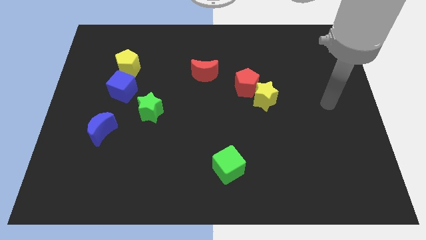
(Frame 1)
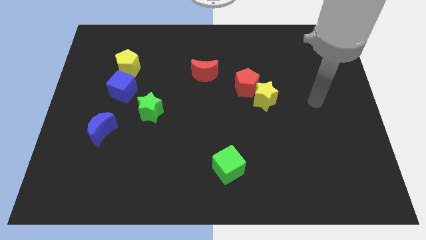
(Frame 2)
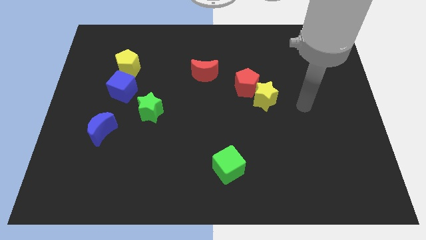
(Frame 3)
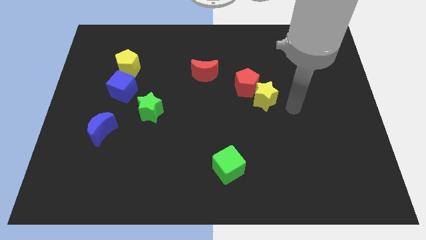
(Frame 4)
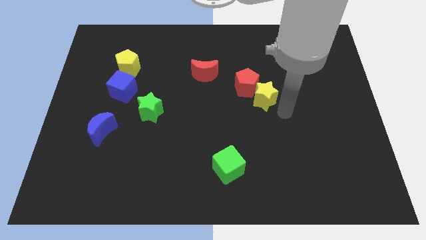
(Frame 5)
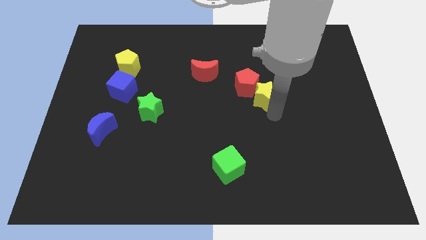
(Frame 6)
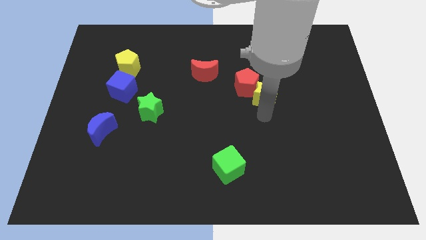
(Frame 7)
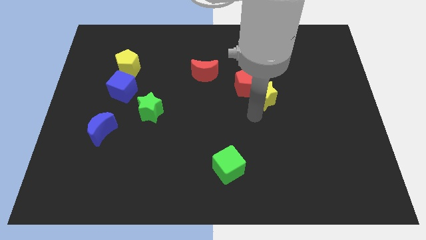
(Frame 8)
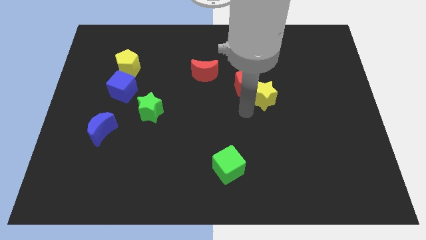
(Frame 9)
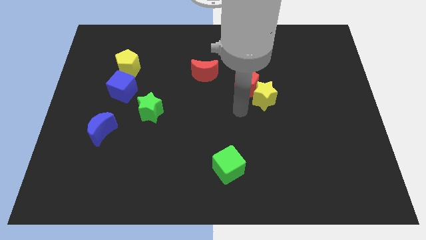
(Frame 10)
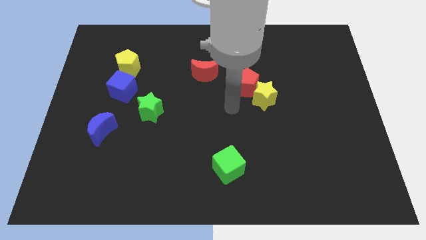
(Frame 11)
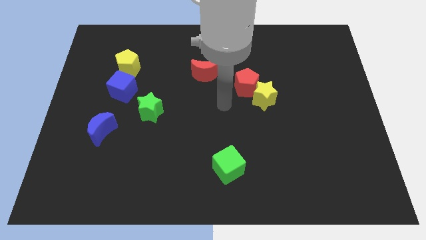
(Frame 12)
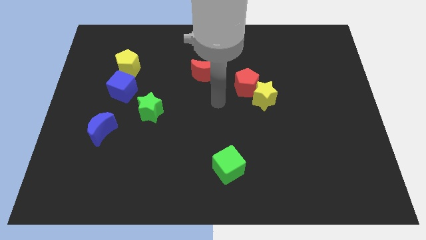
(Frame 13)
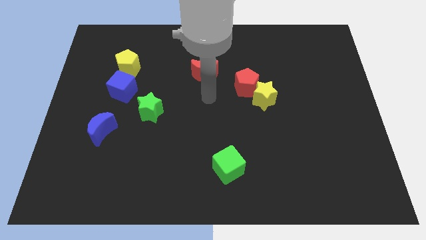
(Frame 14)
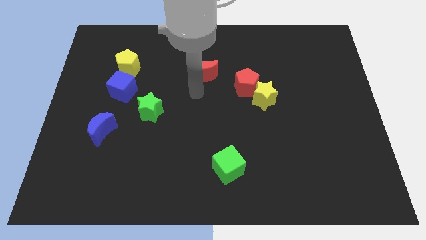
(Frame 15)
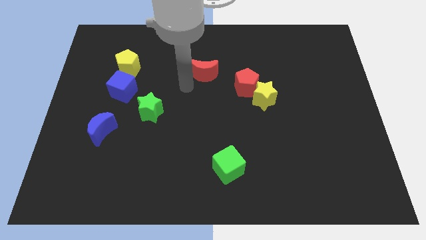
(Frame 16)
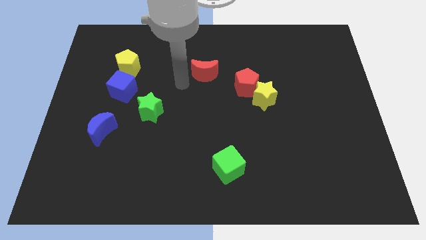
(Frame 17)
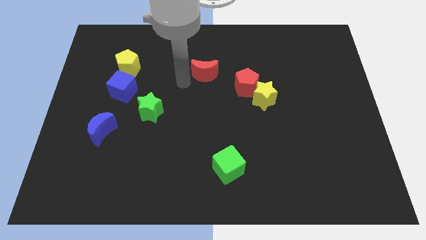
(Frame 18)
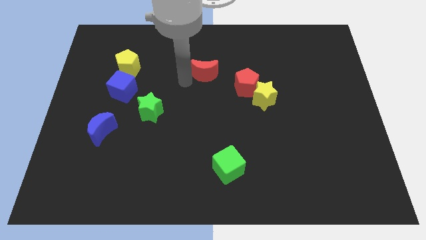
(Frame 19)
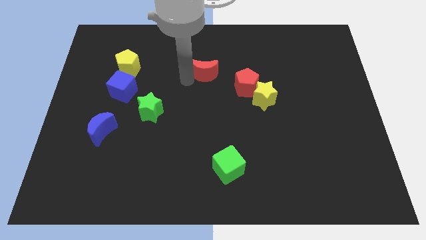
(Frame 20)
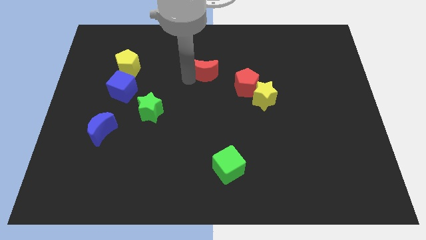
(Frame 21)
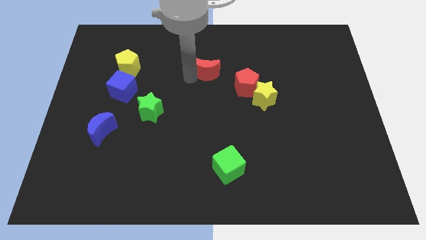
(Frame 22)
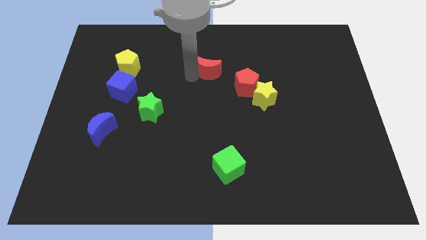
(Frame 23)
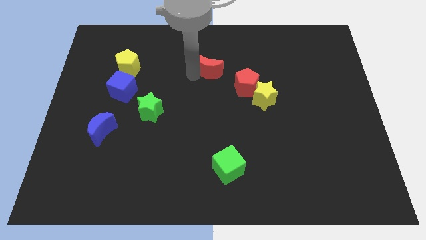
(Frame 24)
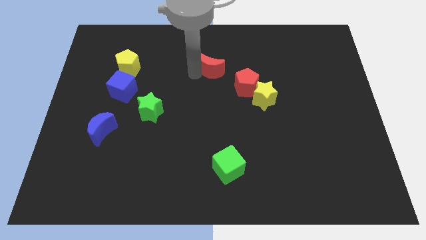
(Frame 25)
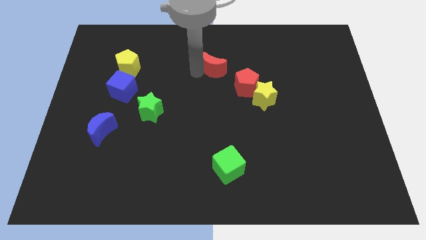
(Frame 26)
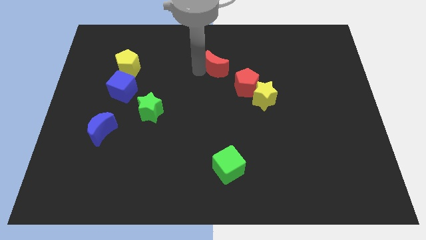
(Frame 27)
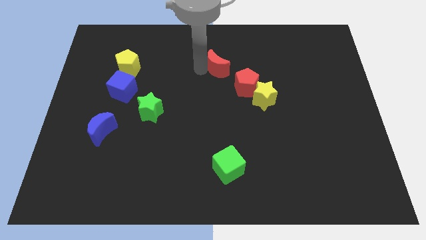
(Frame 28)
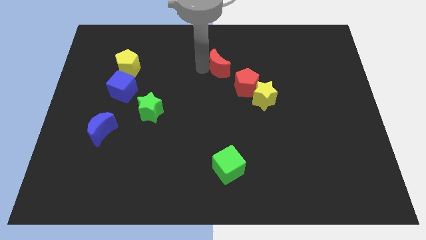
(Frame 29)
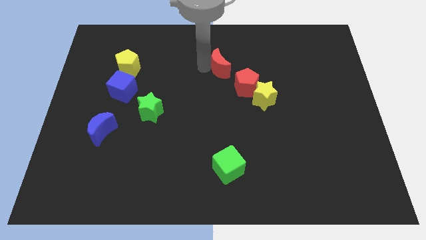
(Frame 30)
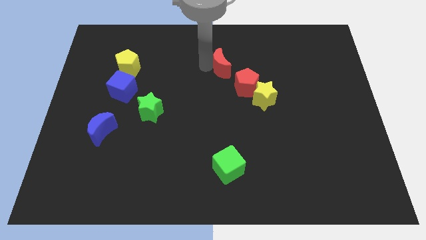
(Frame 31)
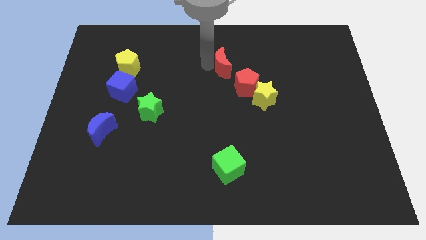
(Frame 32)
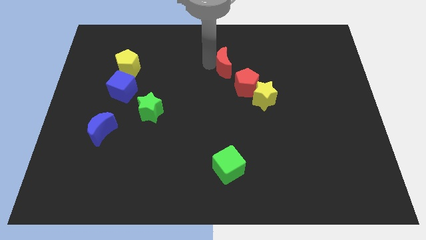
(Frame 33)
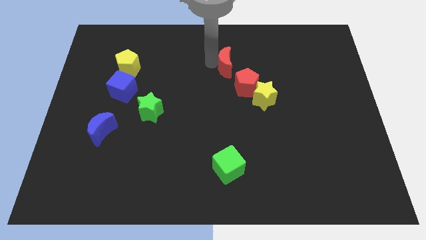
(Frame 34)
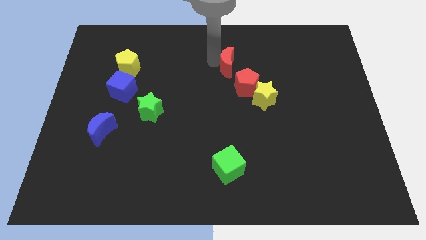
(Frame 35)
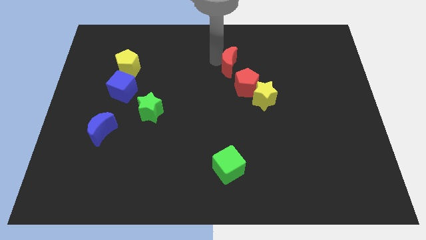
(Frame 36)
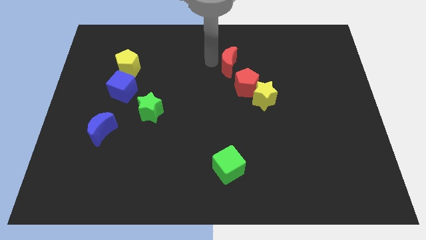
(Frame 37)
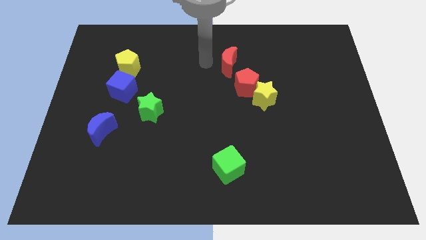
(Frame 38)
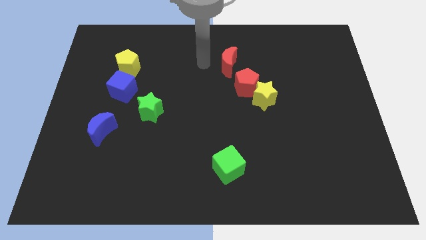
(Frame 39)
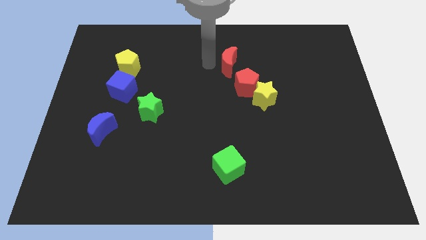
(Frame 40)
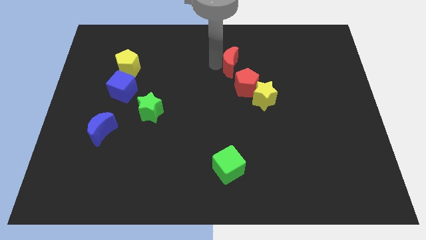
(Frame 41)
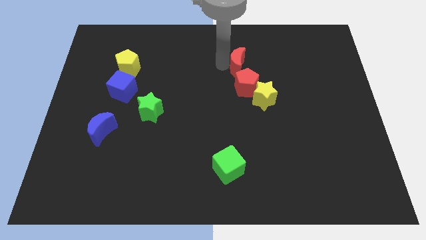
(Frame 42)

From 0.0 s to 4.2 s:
slide the red moon a little to the right

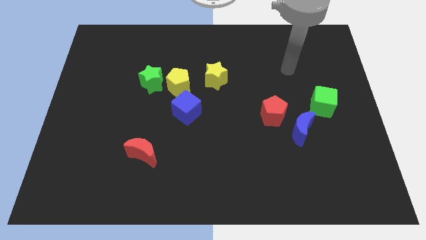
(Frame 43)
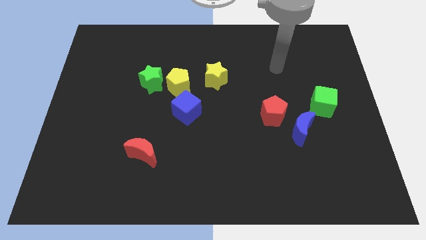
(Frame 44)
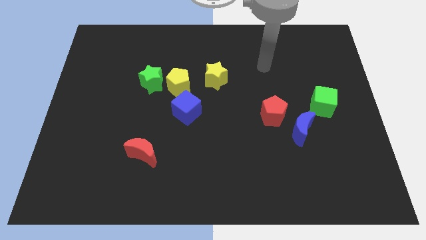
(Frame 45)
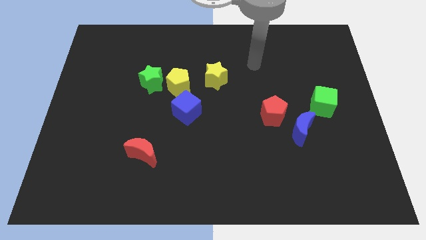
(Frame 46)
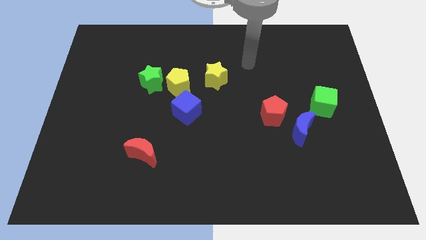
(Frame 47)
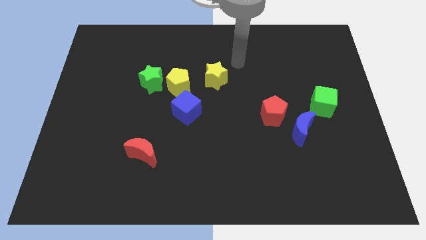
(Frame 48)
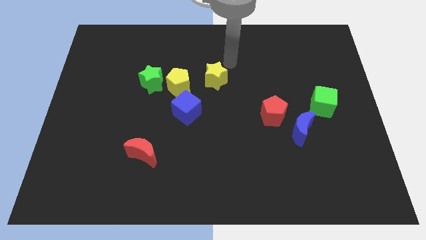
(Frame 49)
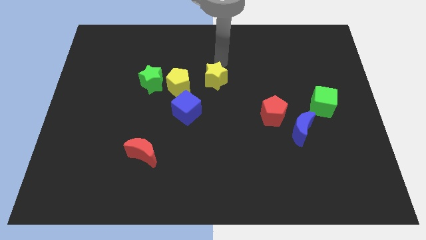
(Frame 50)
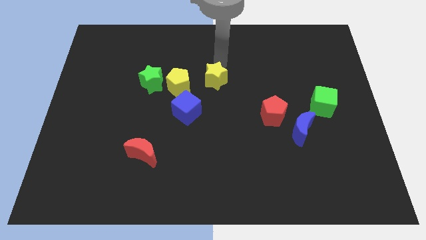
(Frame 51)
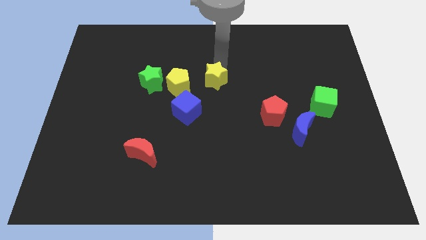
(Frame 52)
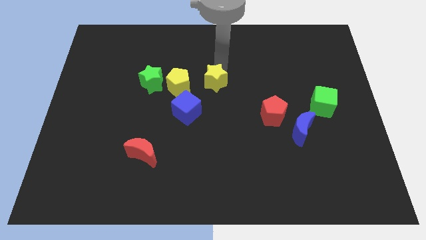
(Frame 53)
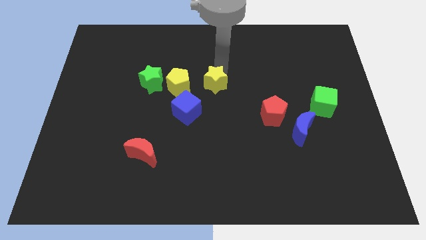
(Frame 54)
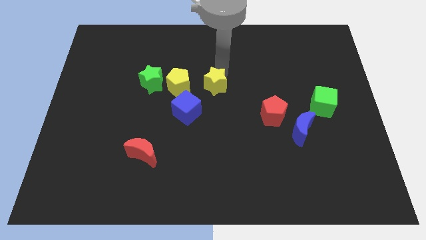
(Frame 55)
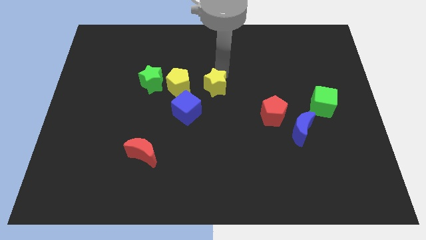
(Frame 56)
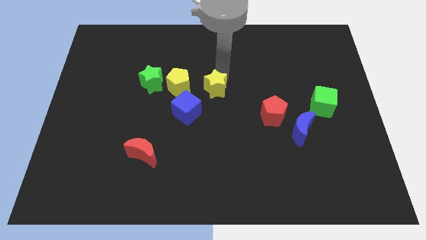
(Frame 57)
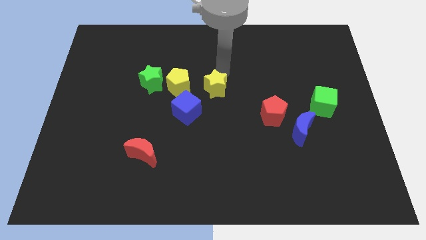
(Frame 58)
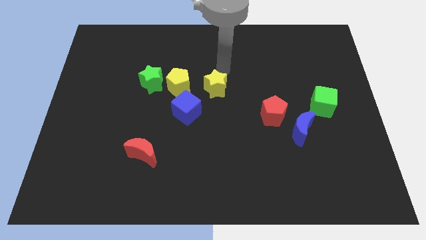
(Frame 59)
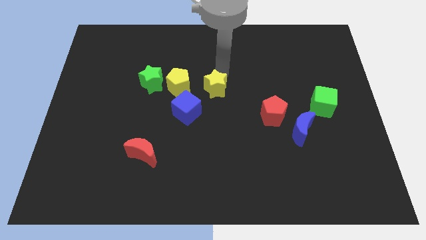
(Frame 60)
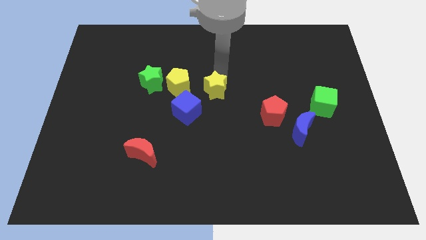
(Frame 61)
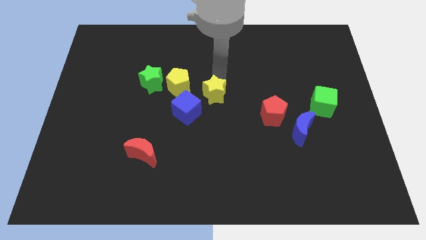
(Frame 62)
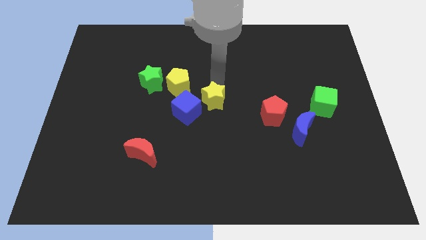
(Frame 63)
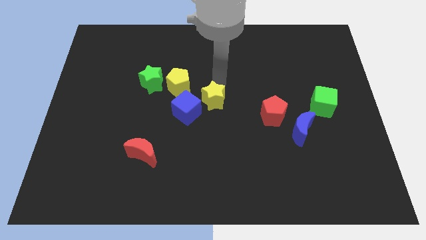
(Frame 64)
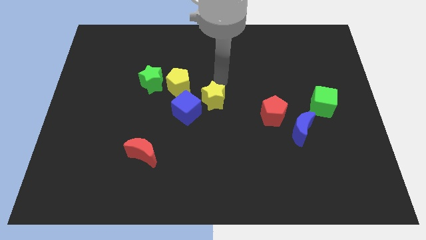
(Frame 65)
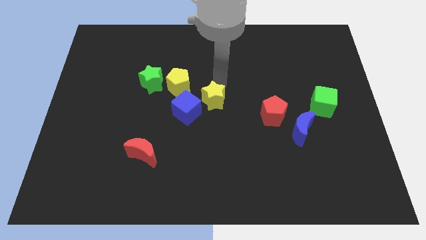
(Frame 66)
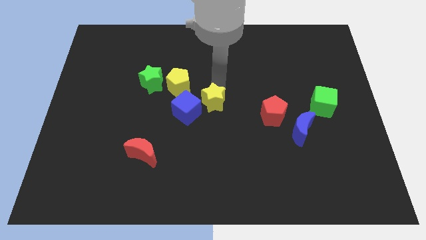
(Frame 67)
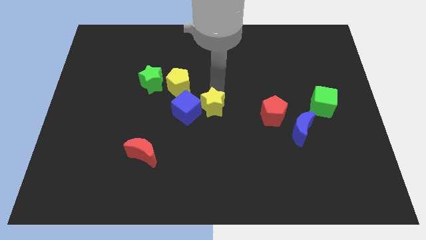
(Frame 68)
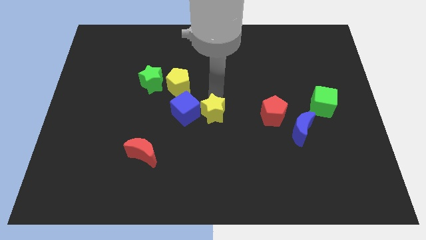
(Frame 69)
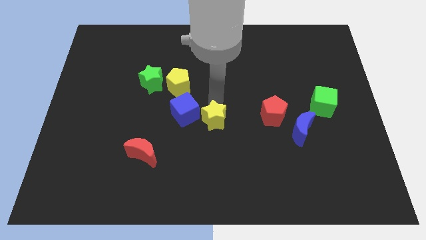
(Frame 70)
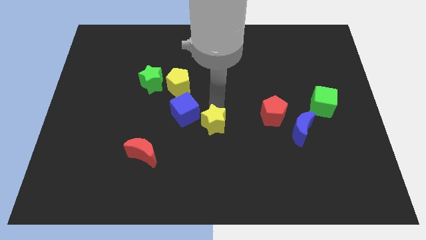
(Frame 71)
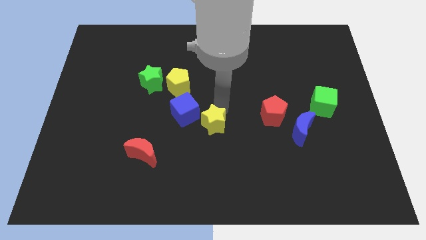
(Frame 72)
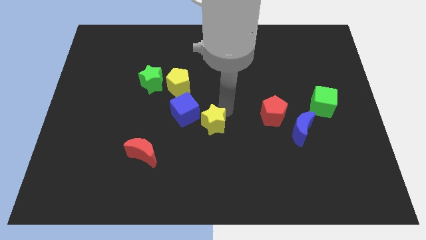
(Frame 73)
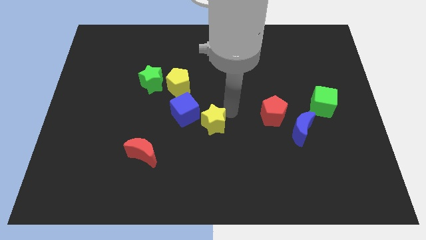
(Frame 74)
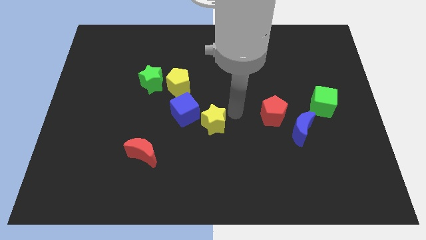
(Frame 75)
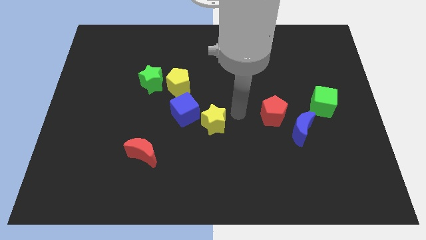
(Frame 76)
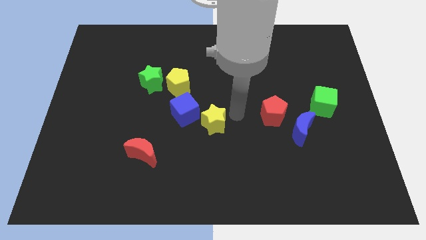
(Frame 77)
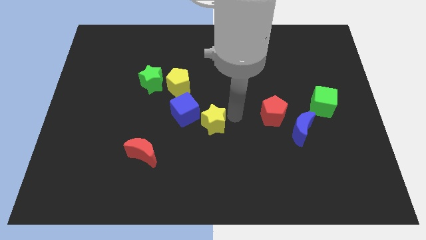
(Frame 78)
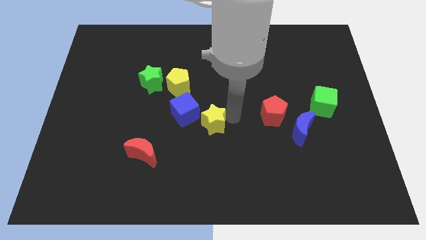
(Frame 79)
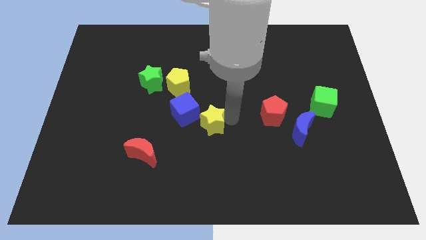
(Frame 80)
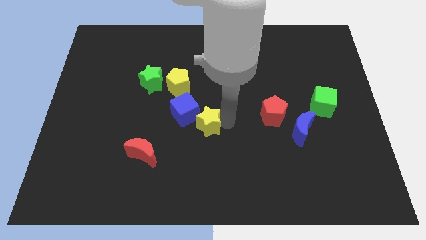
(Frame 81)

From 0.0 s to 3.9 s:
push the yellow star a little bit down and to the left diagonally
